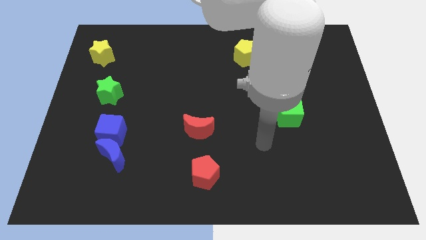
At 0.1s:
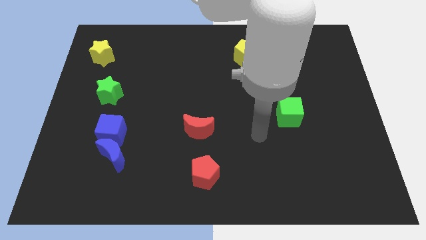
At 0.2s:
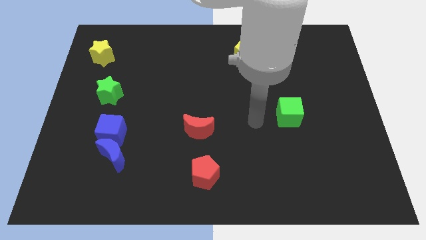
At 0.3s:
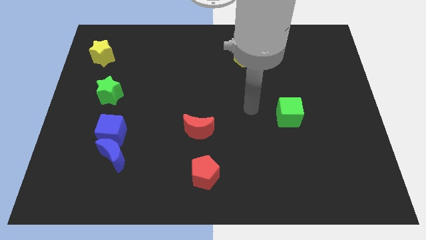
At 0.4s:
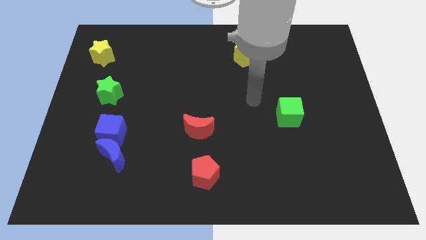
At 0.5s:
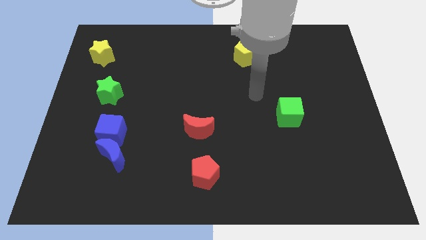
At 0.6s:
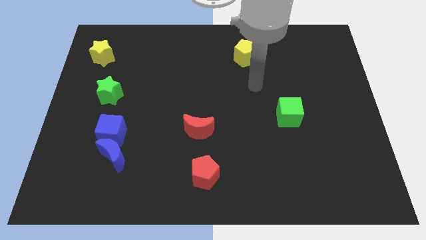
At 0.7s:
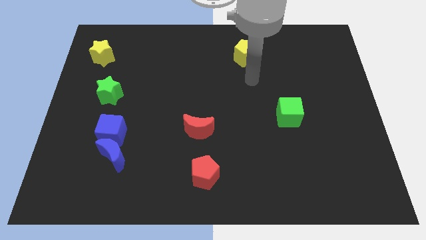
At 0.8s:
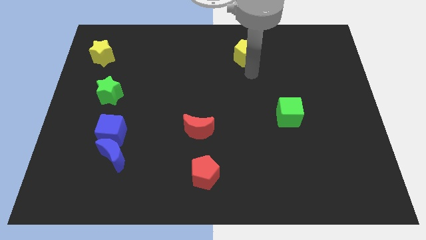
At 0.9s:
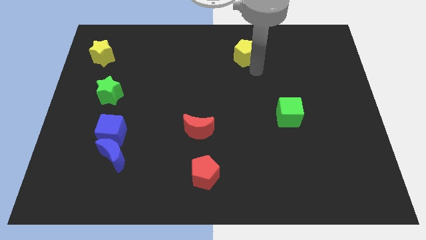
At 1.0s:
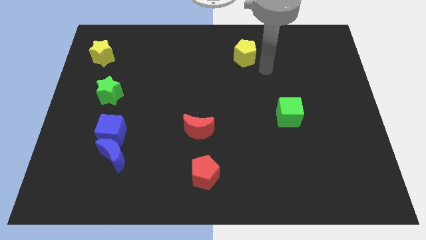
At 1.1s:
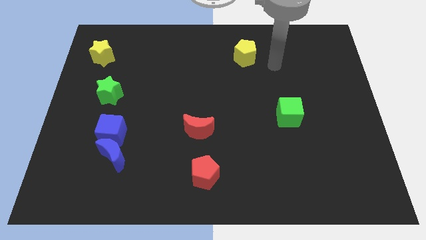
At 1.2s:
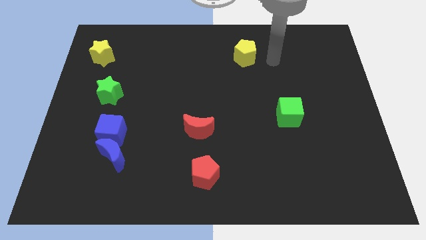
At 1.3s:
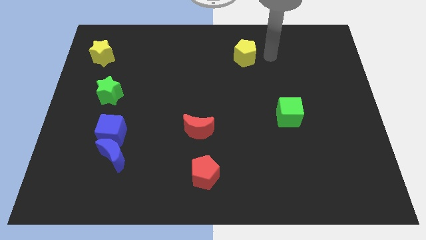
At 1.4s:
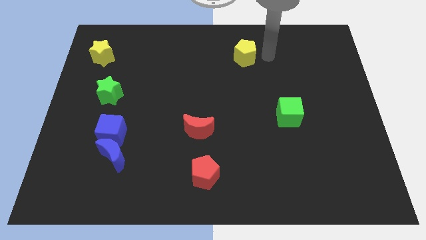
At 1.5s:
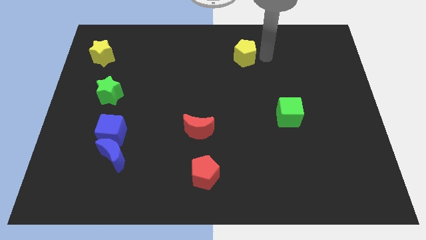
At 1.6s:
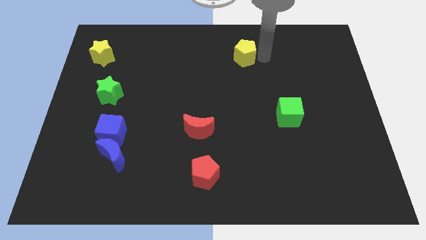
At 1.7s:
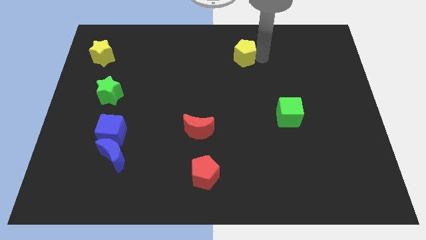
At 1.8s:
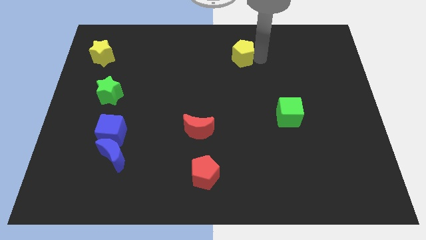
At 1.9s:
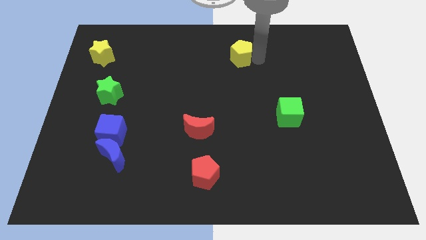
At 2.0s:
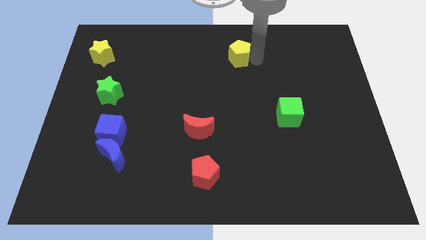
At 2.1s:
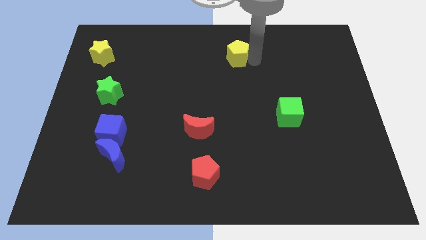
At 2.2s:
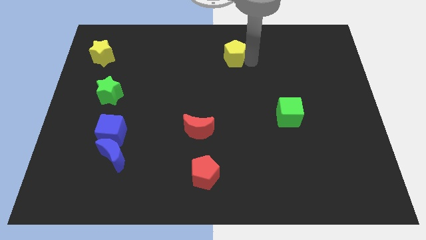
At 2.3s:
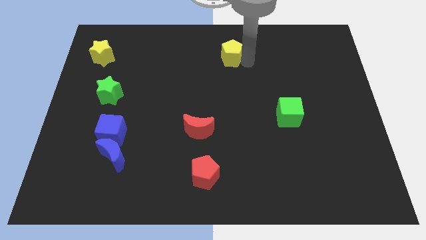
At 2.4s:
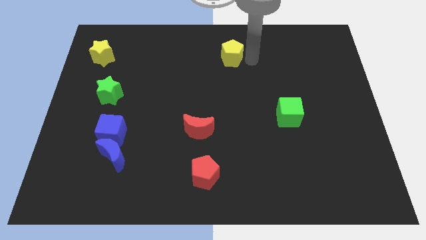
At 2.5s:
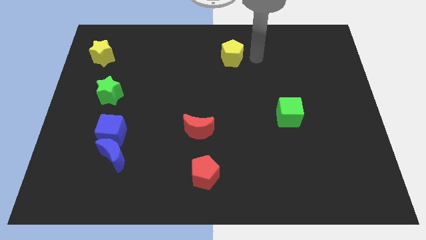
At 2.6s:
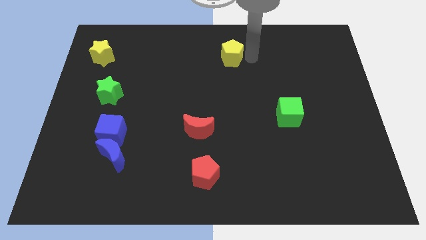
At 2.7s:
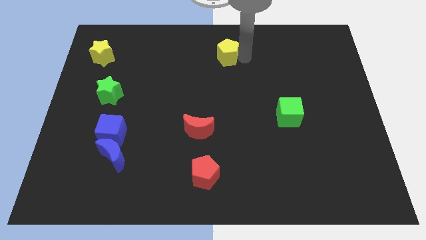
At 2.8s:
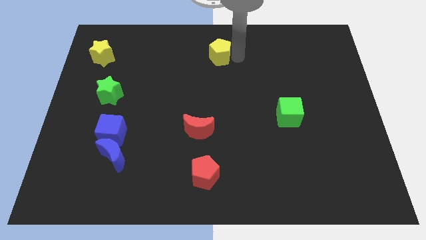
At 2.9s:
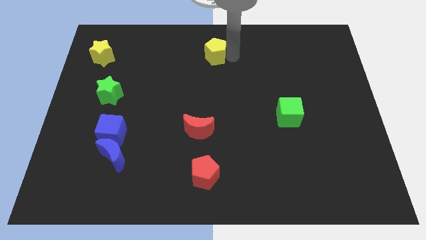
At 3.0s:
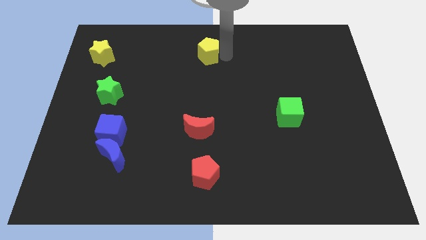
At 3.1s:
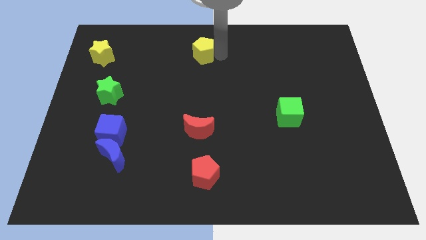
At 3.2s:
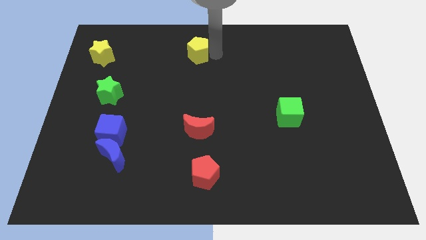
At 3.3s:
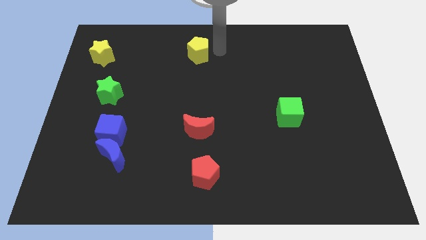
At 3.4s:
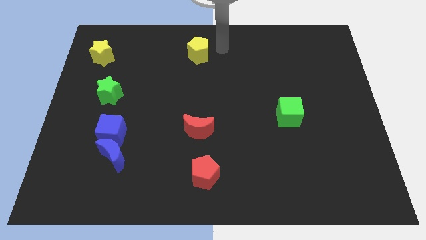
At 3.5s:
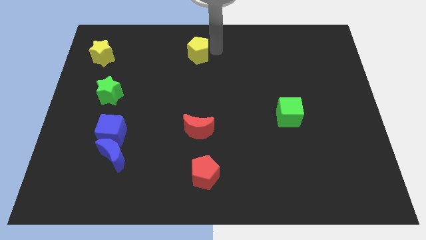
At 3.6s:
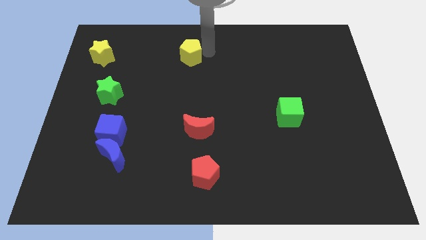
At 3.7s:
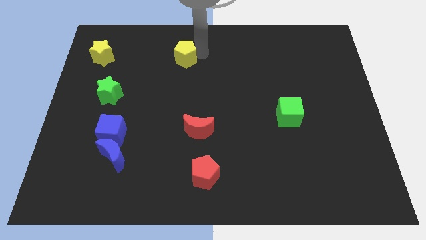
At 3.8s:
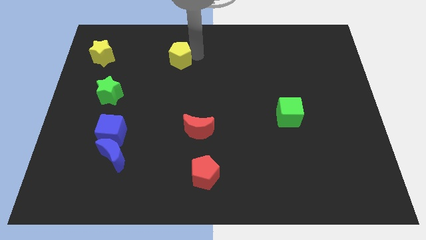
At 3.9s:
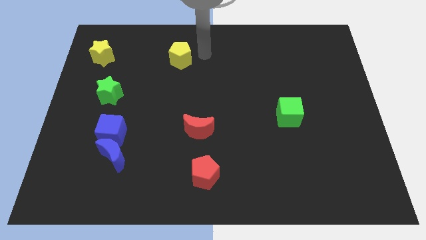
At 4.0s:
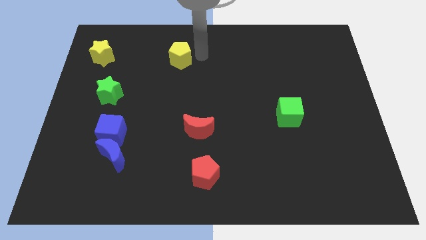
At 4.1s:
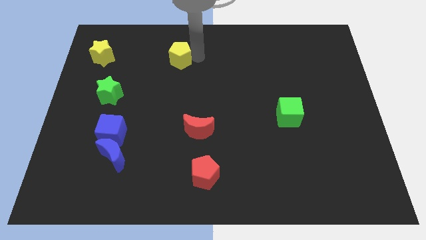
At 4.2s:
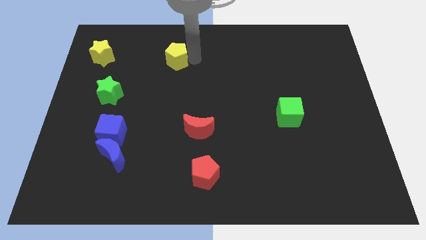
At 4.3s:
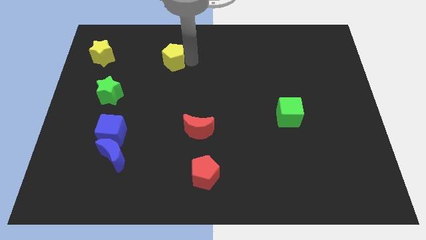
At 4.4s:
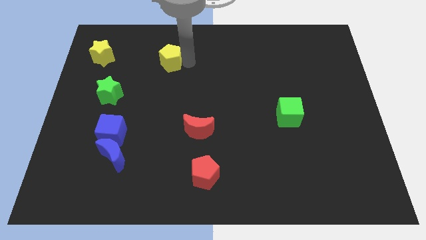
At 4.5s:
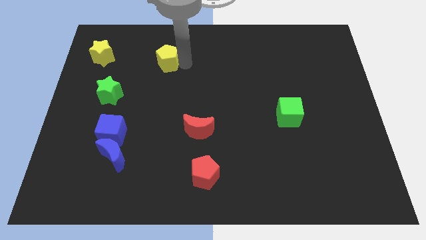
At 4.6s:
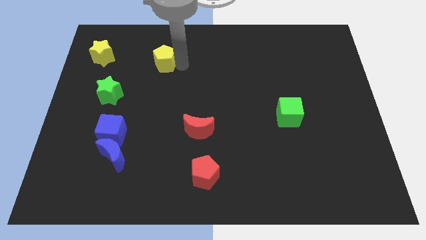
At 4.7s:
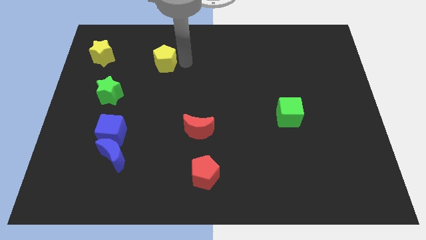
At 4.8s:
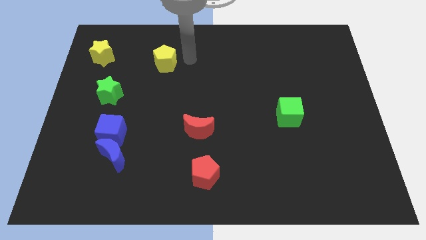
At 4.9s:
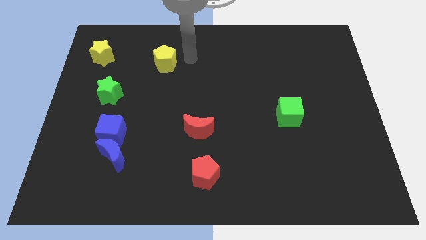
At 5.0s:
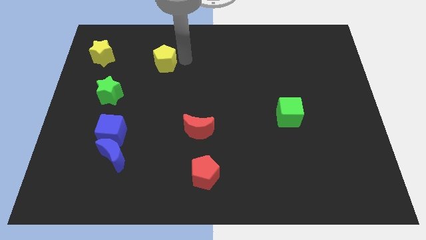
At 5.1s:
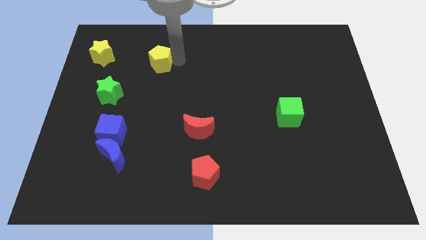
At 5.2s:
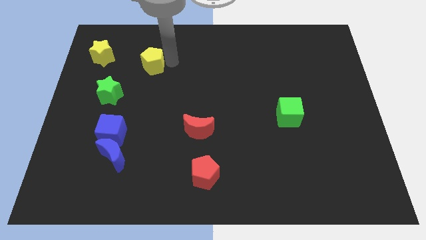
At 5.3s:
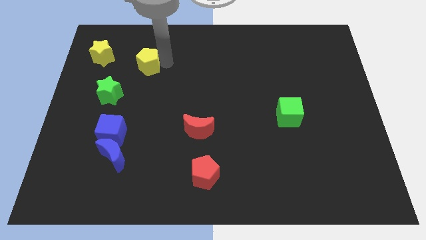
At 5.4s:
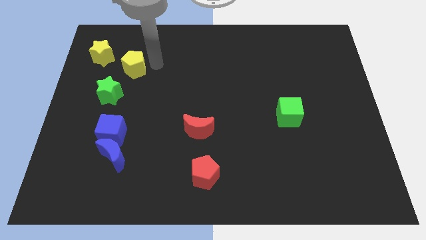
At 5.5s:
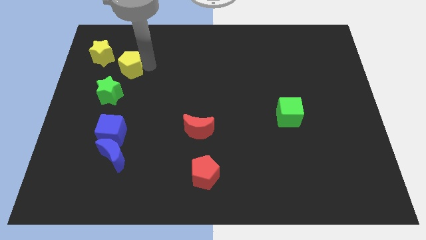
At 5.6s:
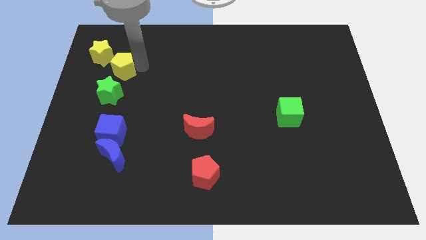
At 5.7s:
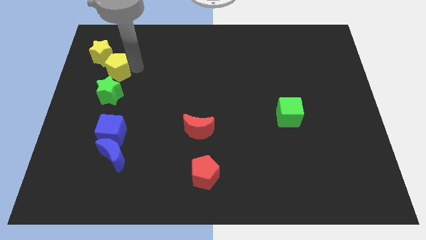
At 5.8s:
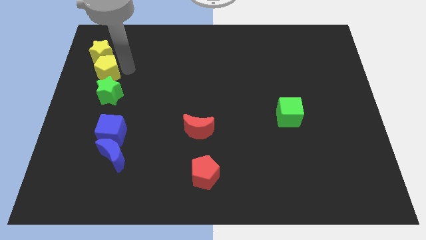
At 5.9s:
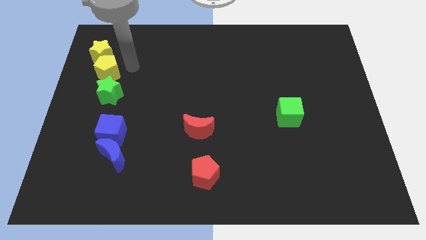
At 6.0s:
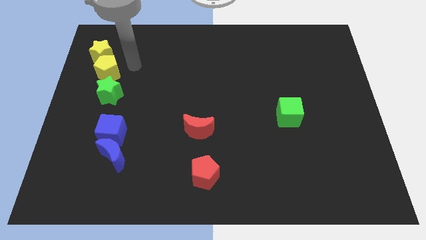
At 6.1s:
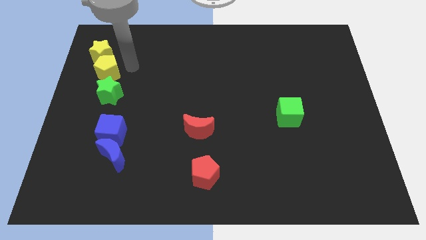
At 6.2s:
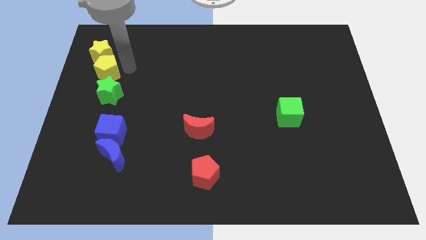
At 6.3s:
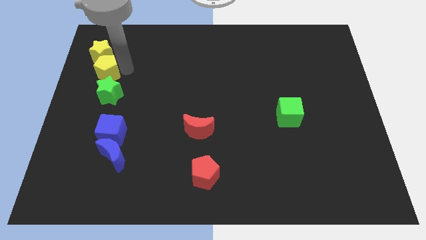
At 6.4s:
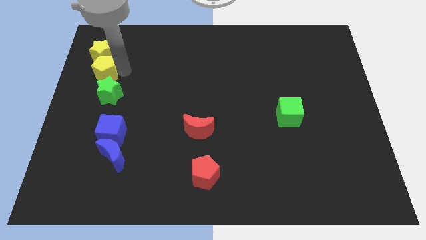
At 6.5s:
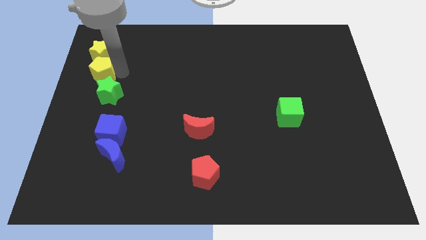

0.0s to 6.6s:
move the yellow pentagon to the left side of the board
